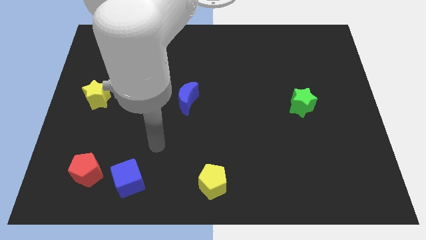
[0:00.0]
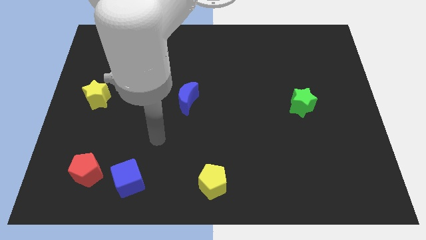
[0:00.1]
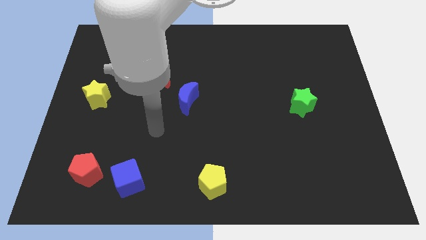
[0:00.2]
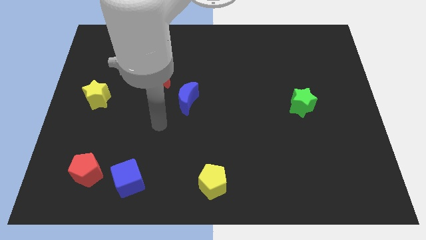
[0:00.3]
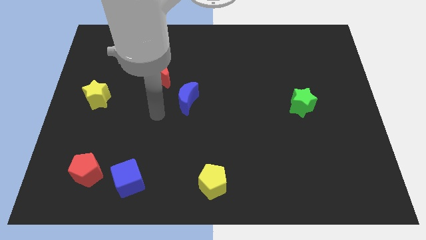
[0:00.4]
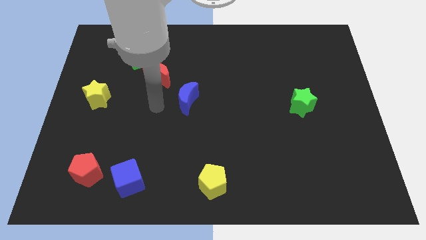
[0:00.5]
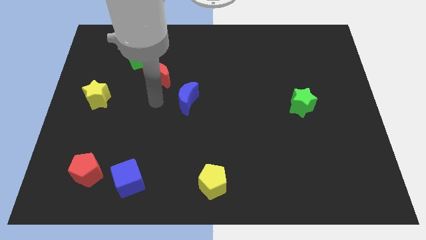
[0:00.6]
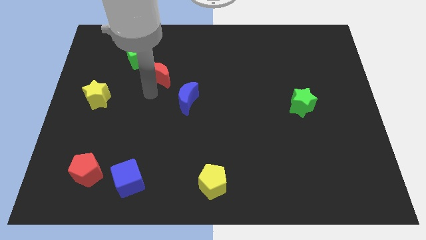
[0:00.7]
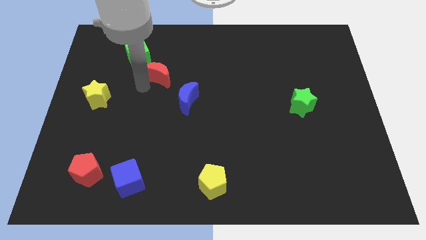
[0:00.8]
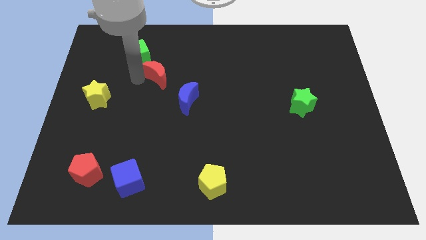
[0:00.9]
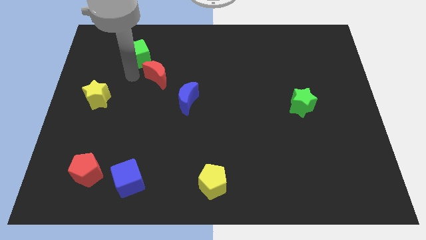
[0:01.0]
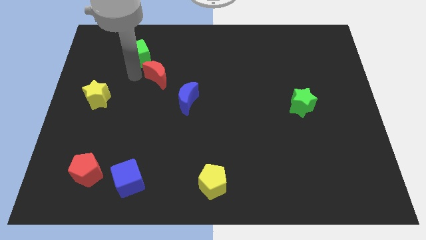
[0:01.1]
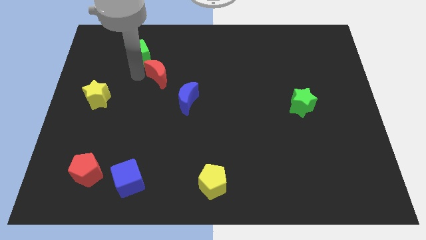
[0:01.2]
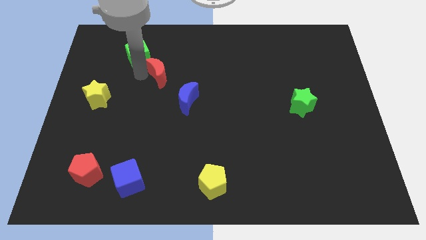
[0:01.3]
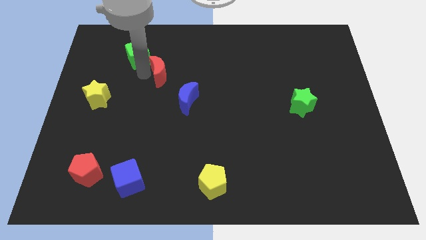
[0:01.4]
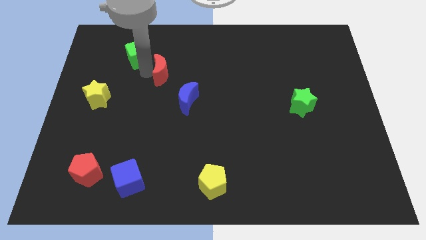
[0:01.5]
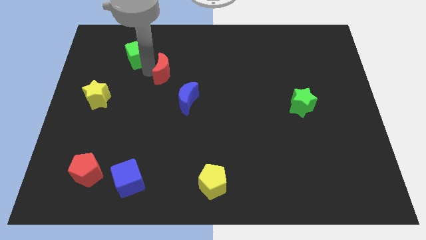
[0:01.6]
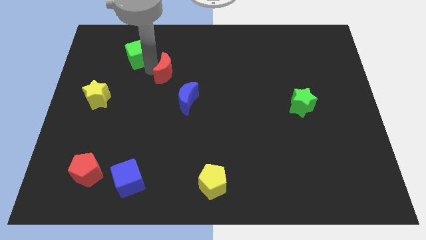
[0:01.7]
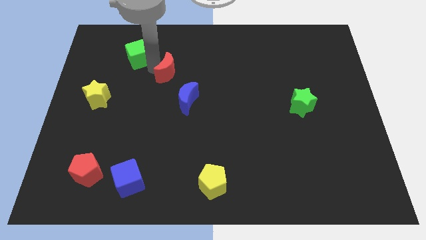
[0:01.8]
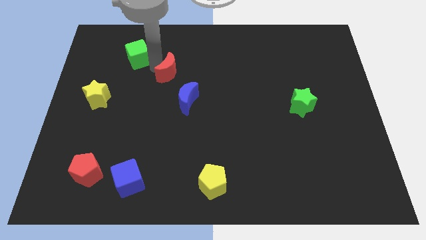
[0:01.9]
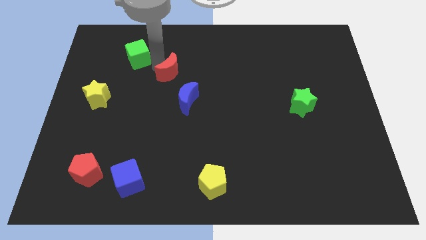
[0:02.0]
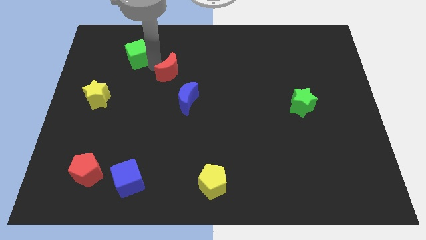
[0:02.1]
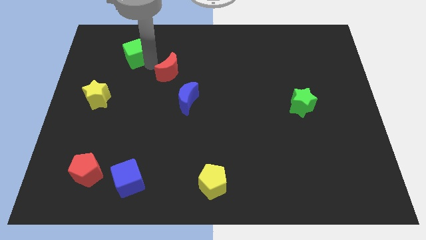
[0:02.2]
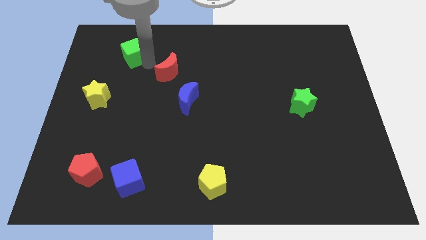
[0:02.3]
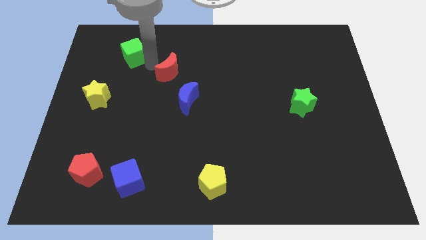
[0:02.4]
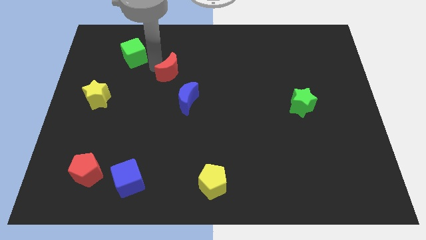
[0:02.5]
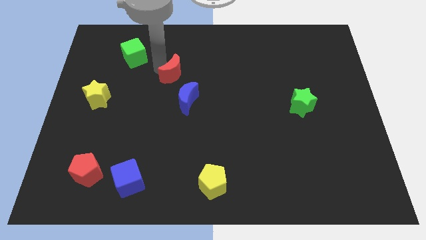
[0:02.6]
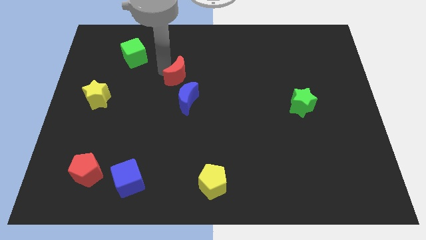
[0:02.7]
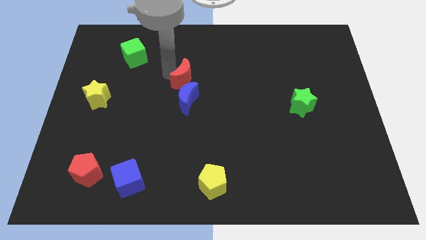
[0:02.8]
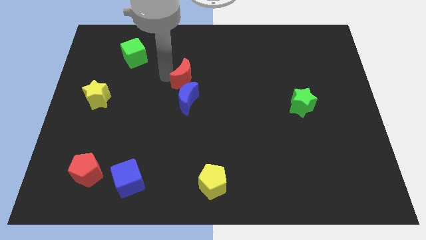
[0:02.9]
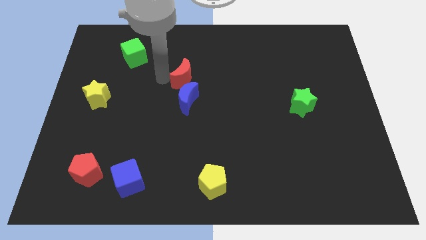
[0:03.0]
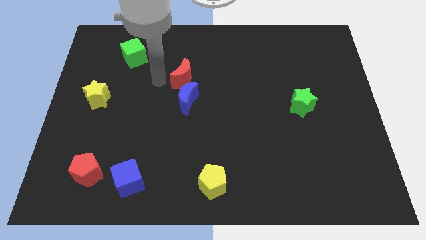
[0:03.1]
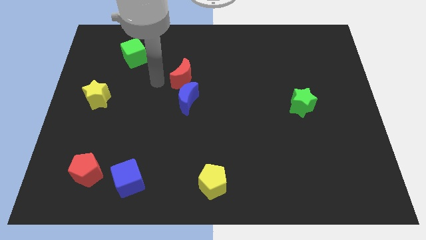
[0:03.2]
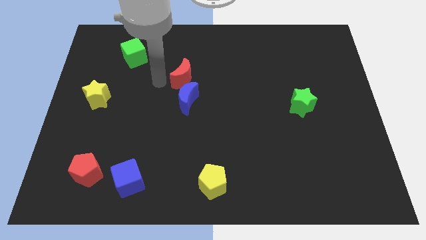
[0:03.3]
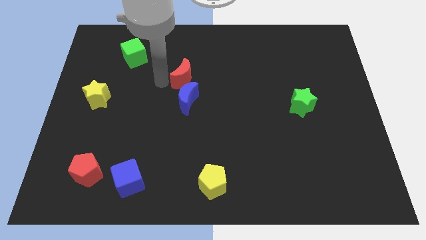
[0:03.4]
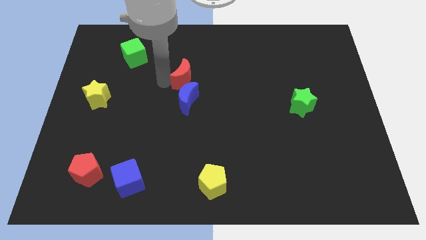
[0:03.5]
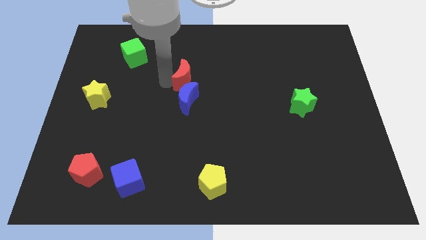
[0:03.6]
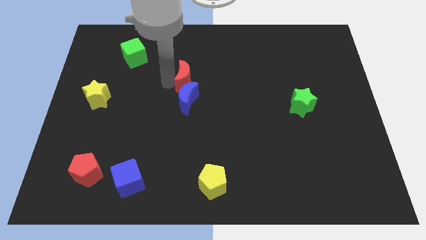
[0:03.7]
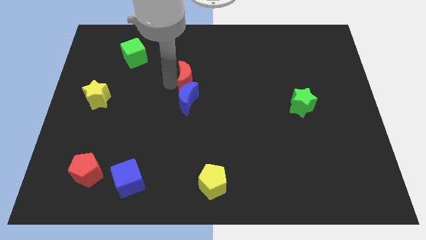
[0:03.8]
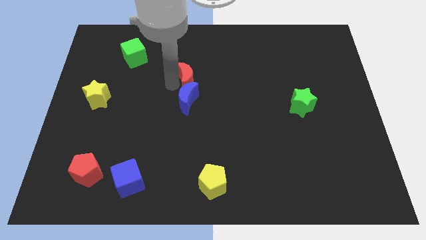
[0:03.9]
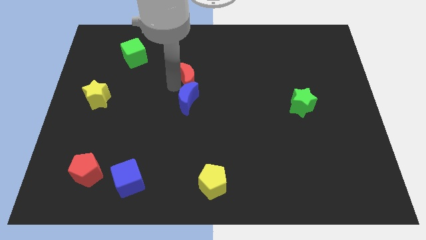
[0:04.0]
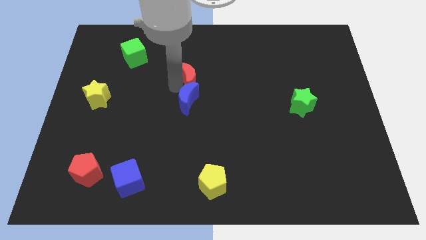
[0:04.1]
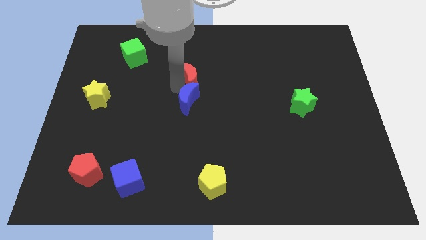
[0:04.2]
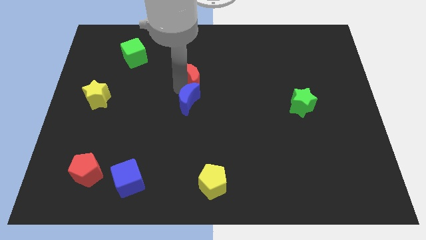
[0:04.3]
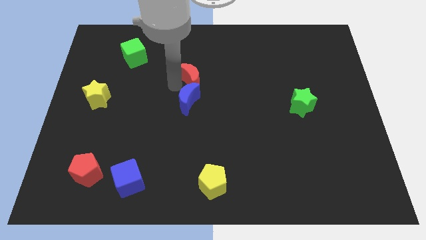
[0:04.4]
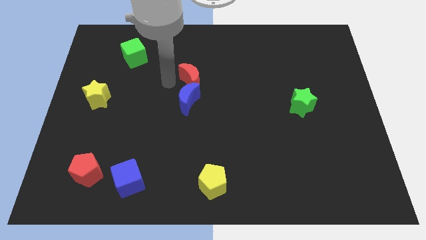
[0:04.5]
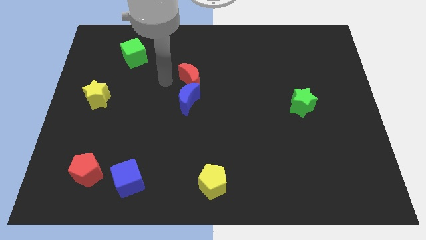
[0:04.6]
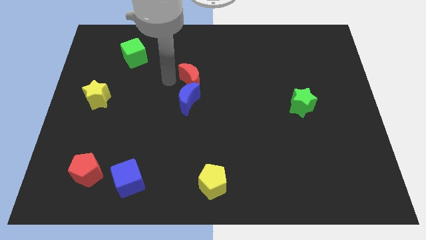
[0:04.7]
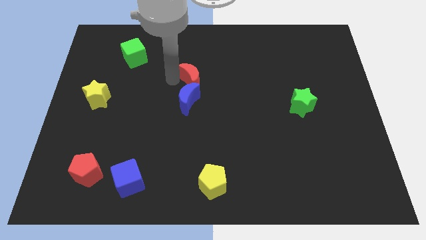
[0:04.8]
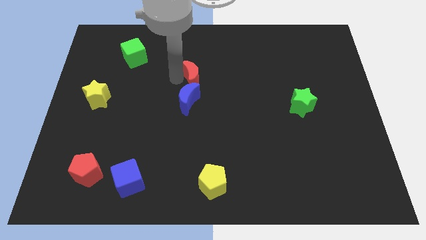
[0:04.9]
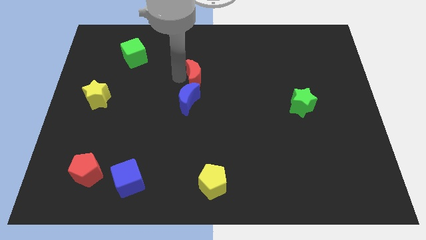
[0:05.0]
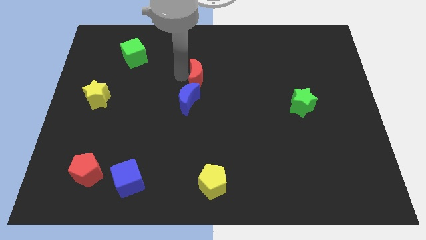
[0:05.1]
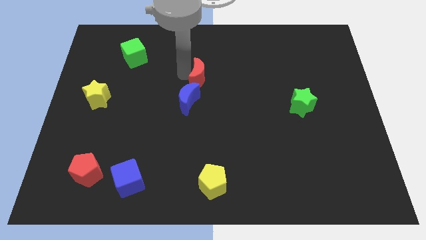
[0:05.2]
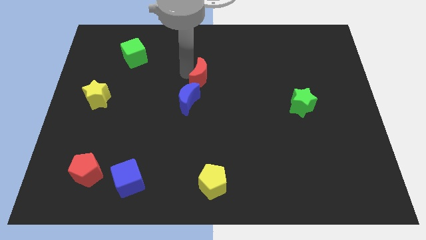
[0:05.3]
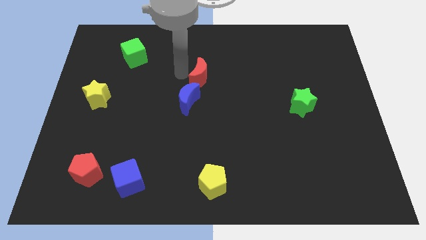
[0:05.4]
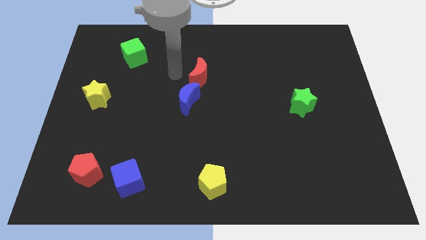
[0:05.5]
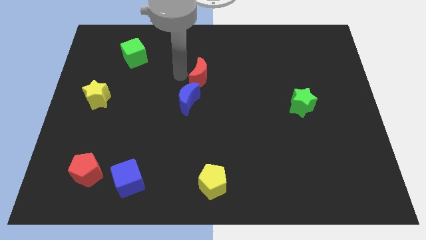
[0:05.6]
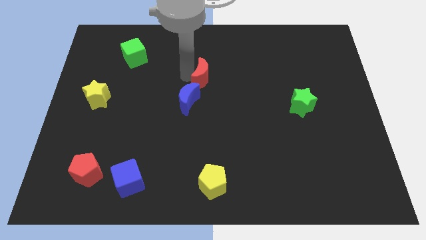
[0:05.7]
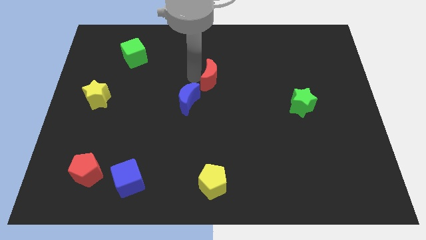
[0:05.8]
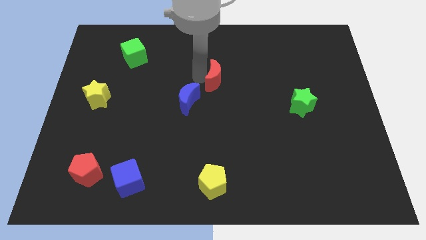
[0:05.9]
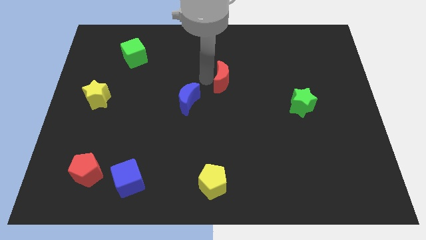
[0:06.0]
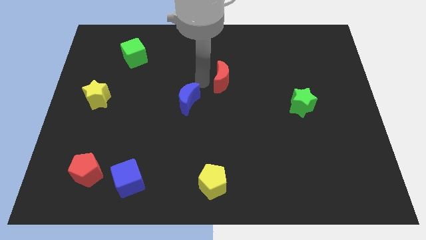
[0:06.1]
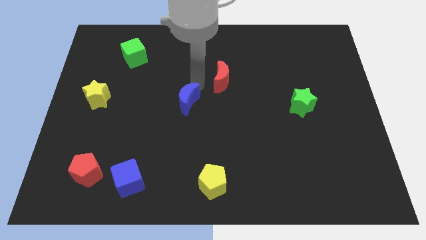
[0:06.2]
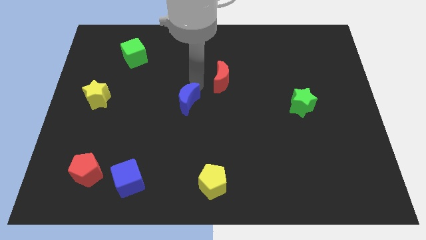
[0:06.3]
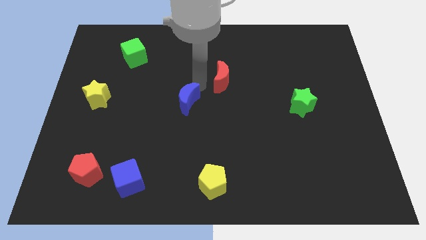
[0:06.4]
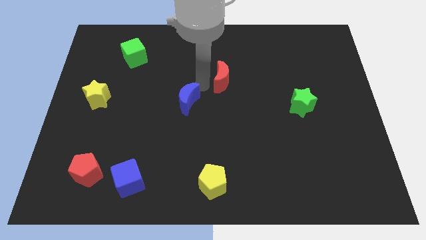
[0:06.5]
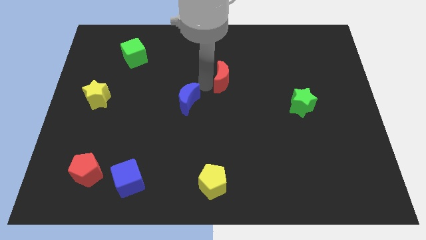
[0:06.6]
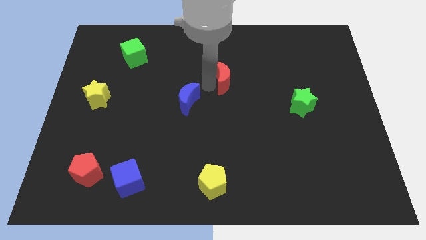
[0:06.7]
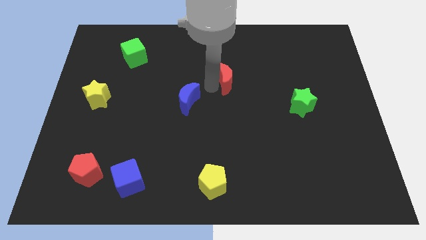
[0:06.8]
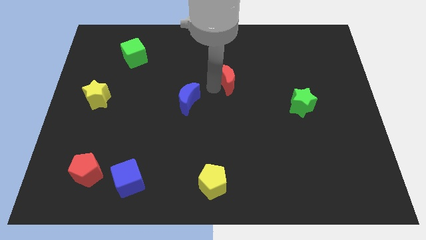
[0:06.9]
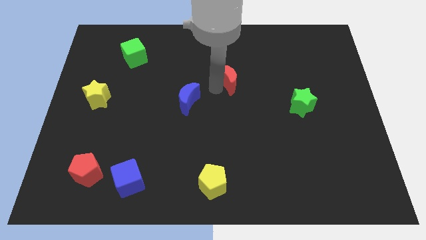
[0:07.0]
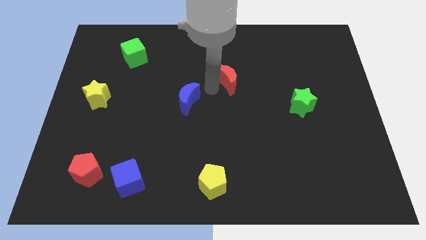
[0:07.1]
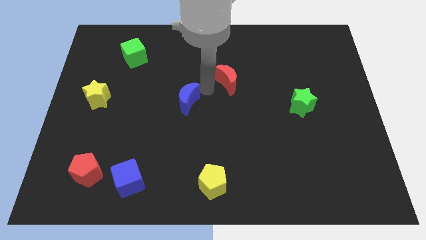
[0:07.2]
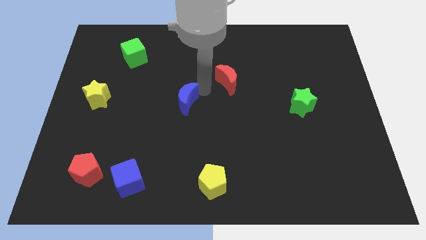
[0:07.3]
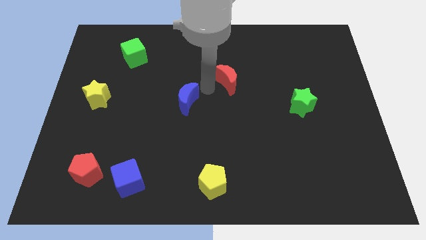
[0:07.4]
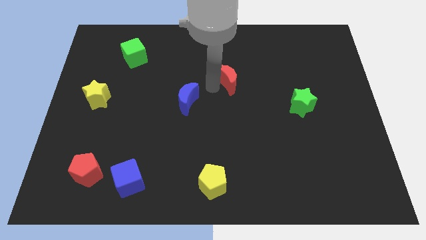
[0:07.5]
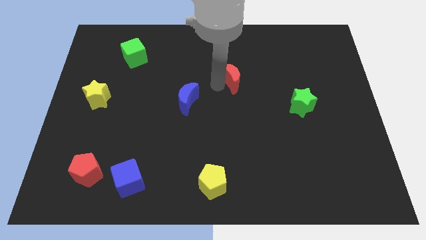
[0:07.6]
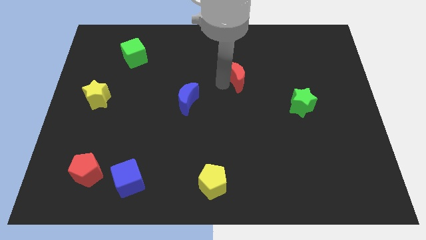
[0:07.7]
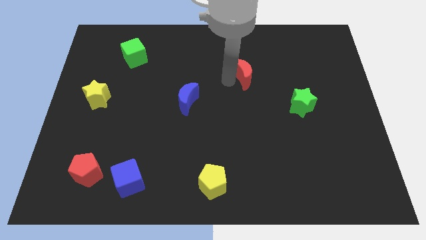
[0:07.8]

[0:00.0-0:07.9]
slide the red moon to the right

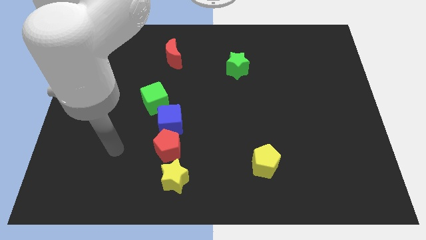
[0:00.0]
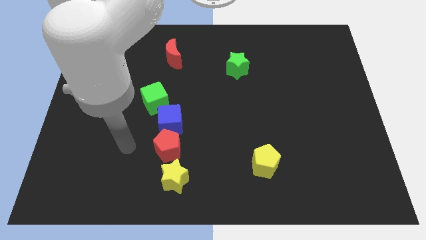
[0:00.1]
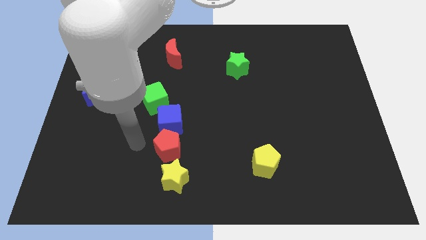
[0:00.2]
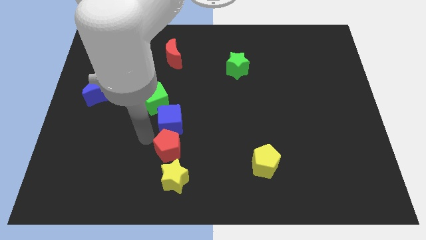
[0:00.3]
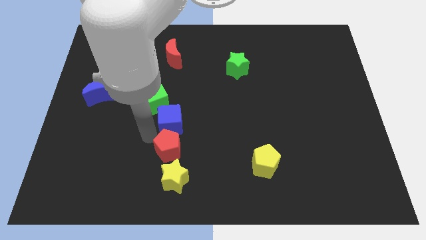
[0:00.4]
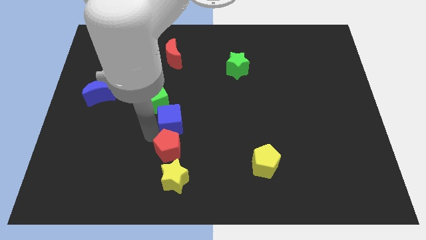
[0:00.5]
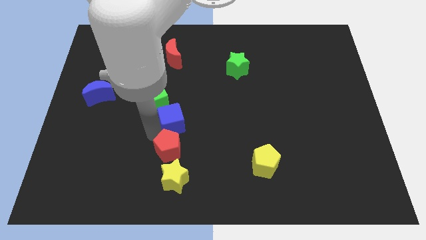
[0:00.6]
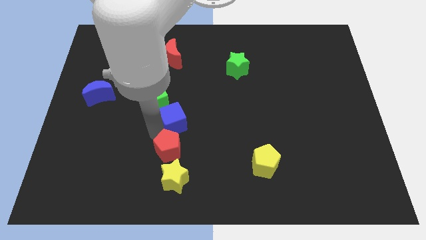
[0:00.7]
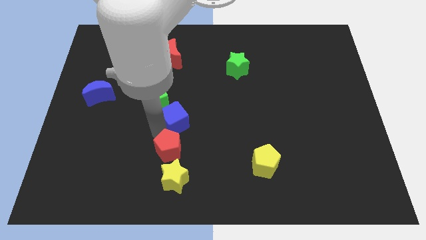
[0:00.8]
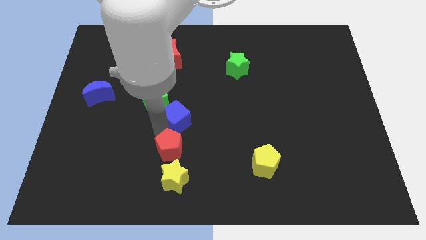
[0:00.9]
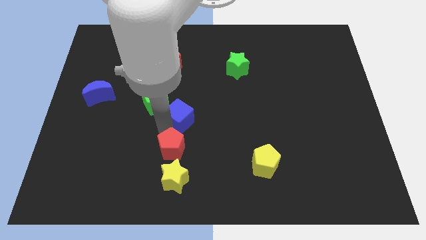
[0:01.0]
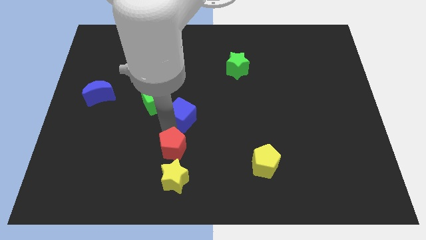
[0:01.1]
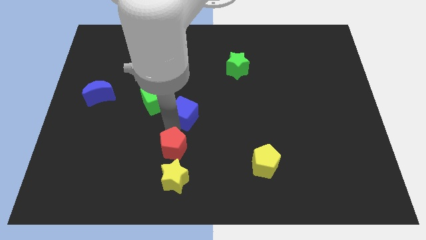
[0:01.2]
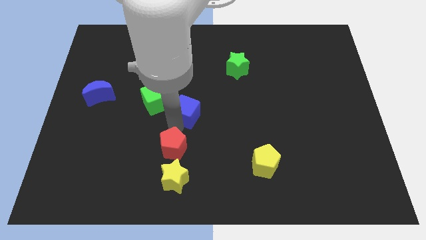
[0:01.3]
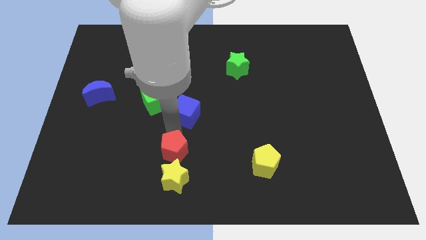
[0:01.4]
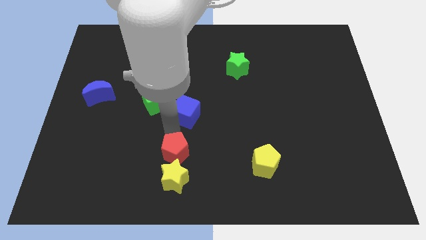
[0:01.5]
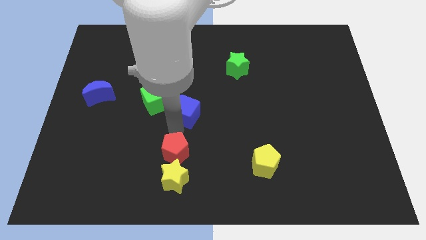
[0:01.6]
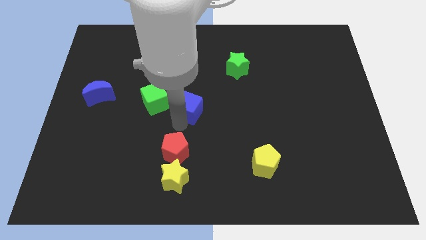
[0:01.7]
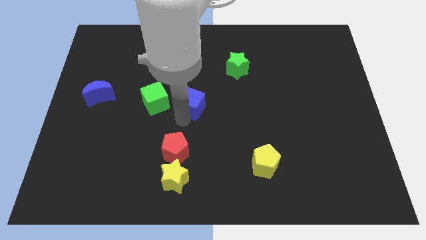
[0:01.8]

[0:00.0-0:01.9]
move the blue cube slightly up and then right
